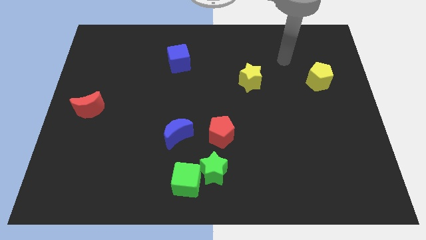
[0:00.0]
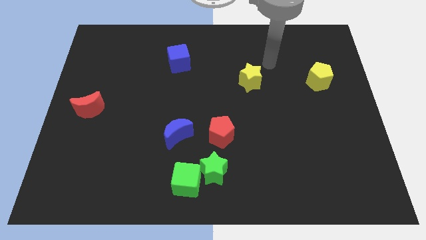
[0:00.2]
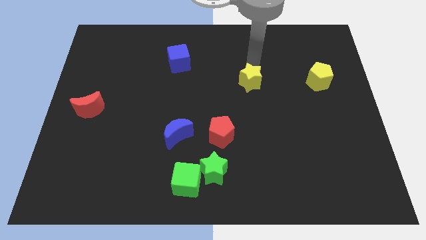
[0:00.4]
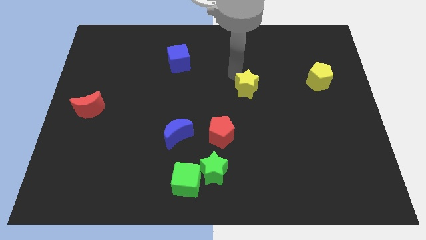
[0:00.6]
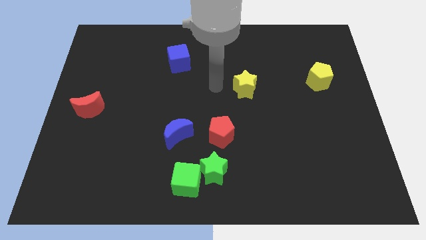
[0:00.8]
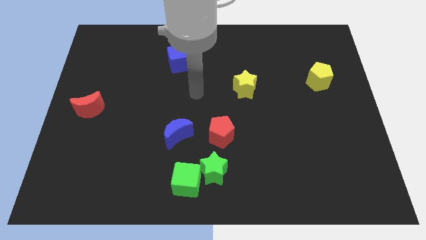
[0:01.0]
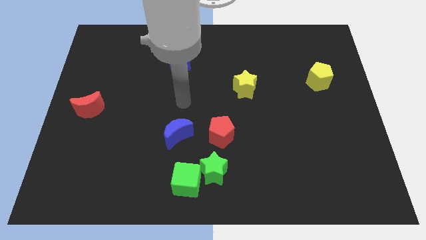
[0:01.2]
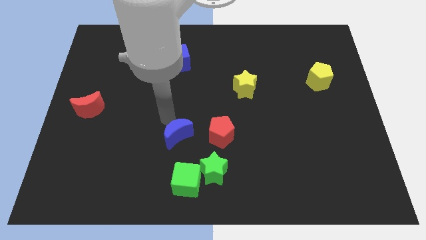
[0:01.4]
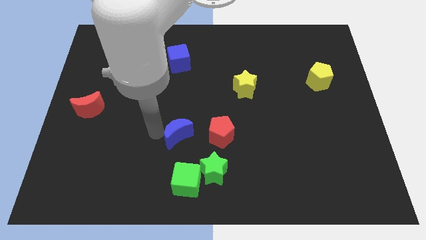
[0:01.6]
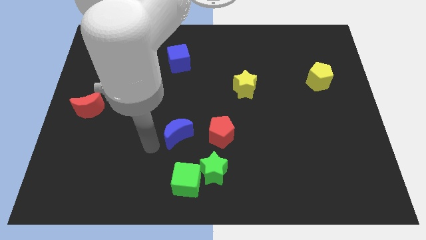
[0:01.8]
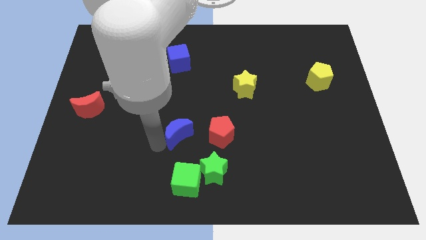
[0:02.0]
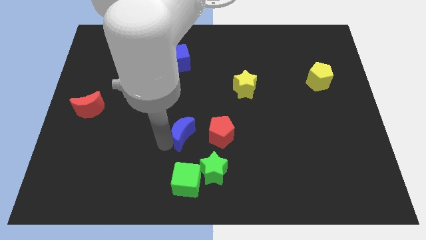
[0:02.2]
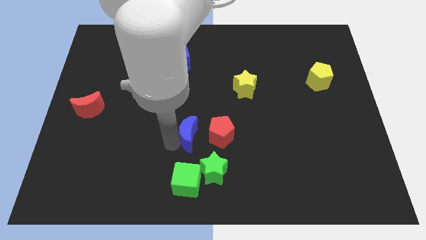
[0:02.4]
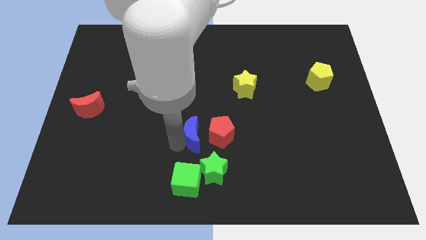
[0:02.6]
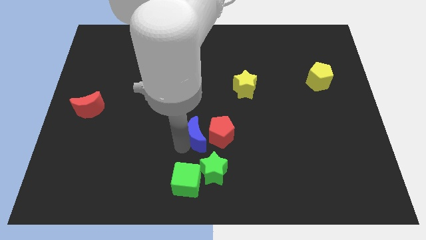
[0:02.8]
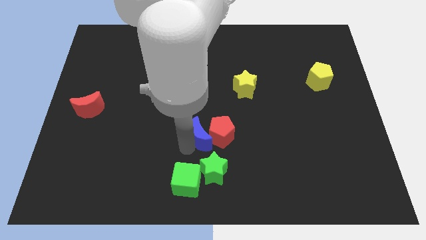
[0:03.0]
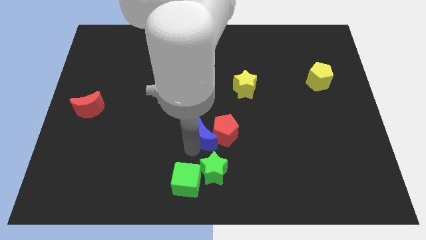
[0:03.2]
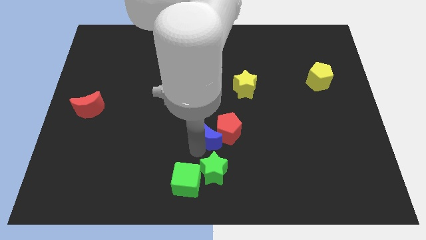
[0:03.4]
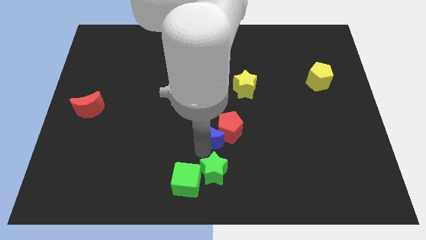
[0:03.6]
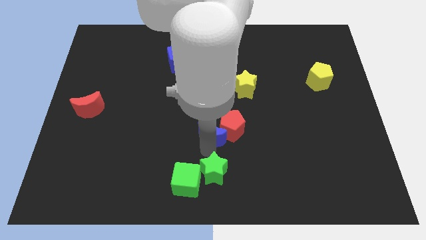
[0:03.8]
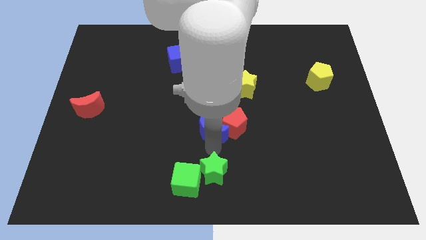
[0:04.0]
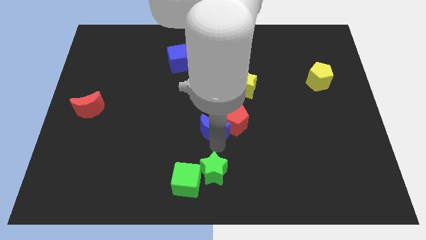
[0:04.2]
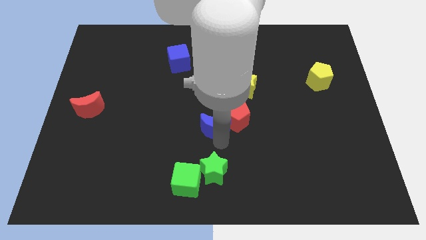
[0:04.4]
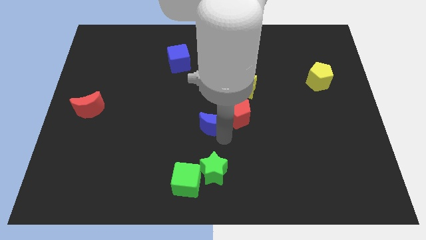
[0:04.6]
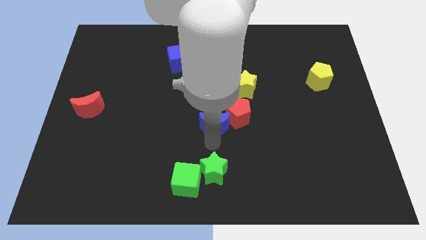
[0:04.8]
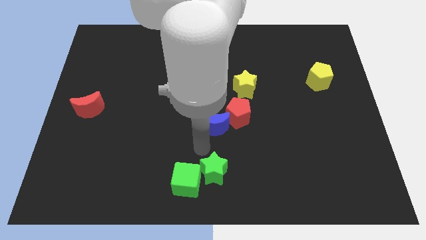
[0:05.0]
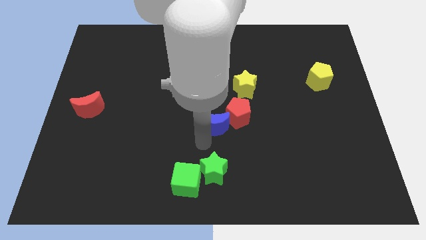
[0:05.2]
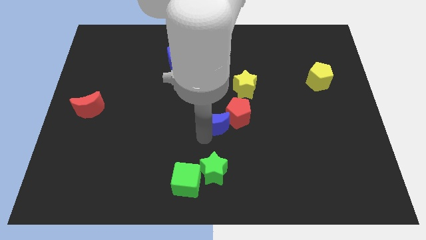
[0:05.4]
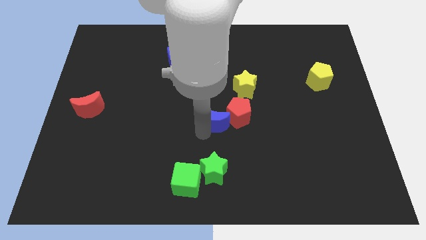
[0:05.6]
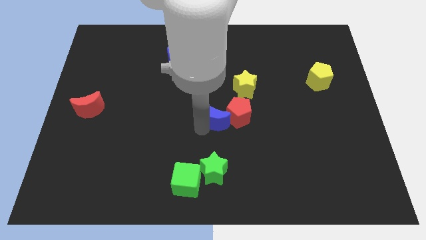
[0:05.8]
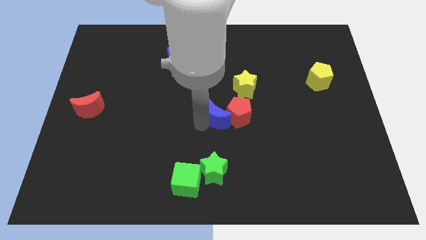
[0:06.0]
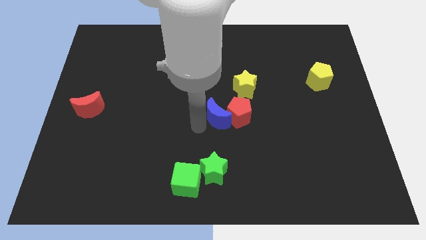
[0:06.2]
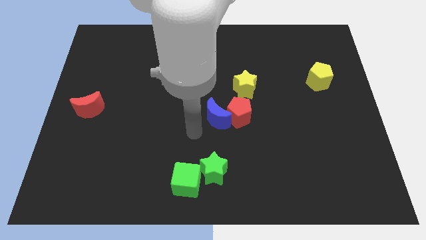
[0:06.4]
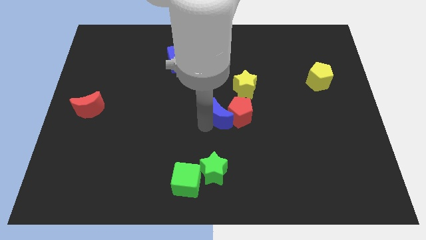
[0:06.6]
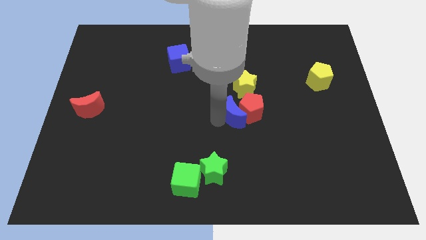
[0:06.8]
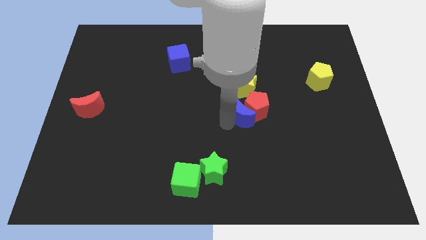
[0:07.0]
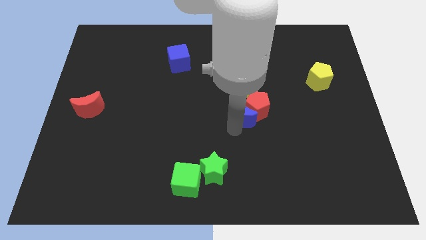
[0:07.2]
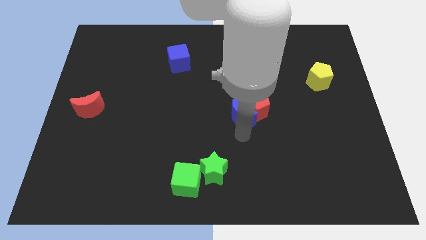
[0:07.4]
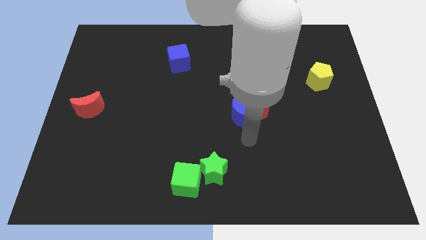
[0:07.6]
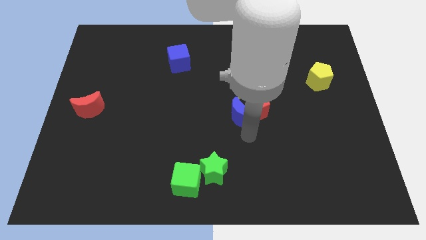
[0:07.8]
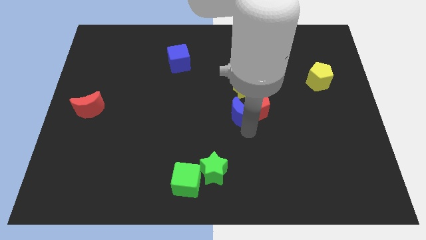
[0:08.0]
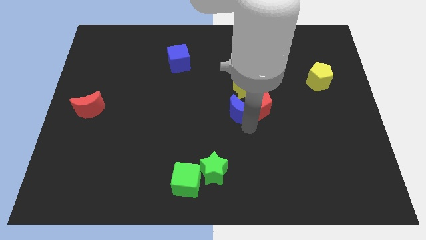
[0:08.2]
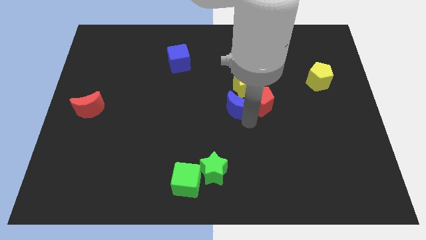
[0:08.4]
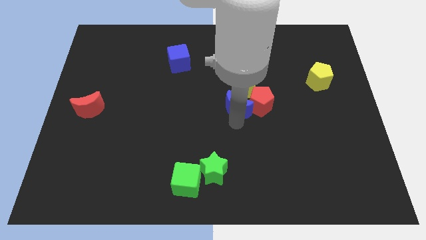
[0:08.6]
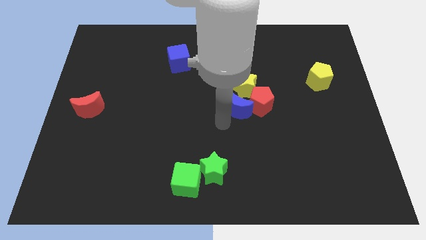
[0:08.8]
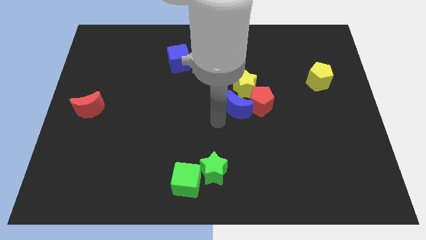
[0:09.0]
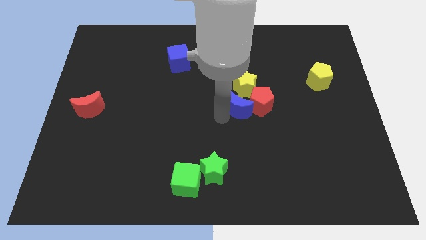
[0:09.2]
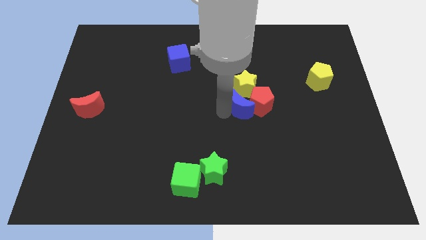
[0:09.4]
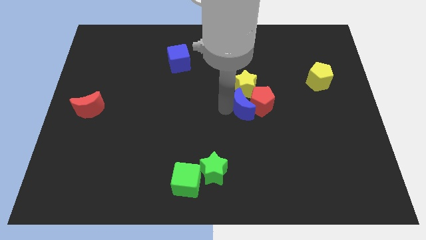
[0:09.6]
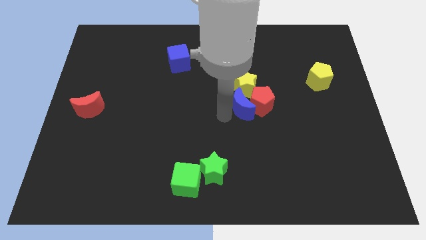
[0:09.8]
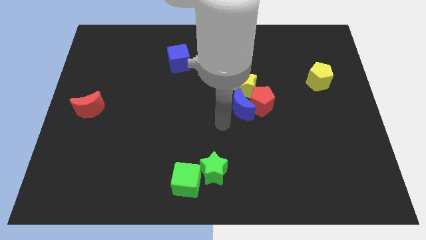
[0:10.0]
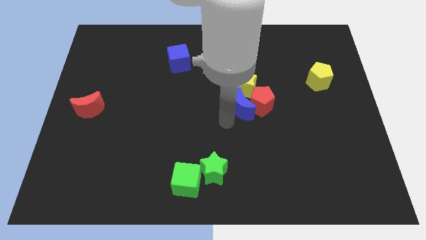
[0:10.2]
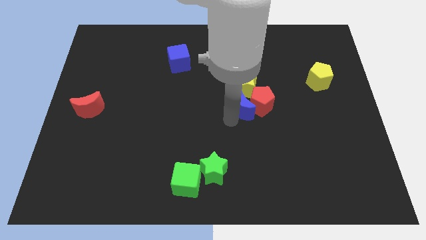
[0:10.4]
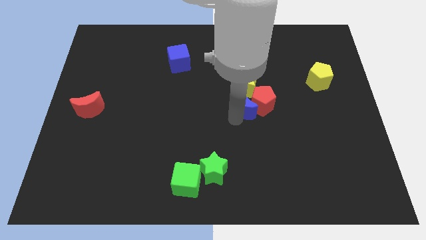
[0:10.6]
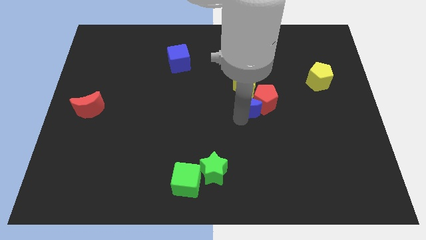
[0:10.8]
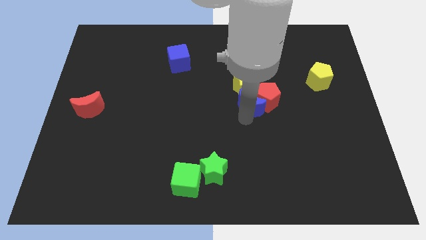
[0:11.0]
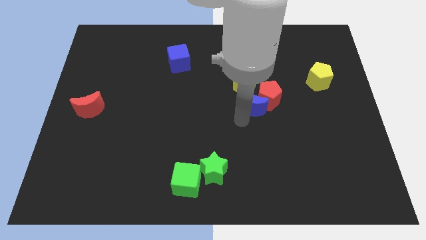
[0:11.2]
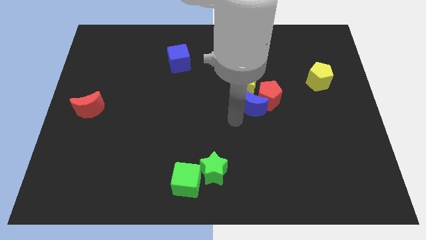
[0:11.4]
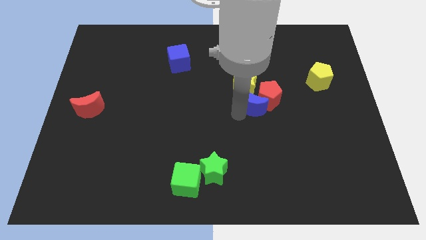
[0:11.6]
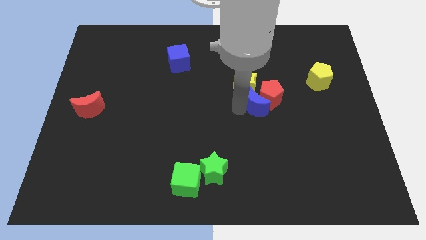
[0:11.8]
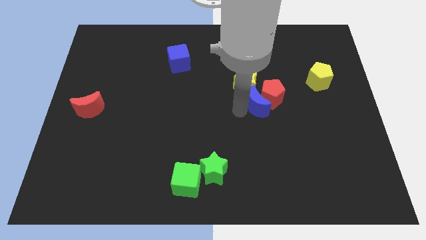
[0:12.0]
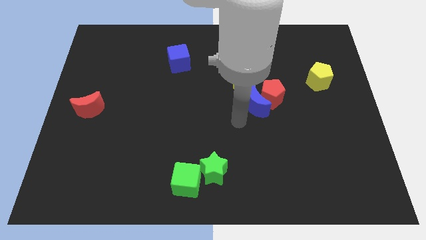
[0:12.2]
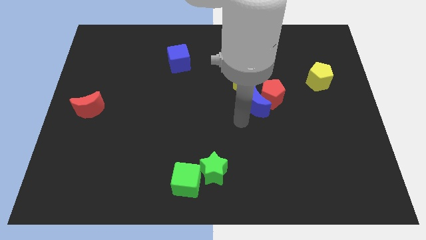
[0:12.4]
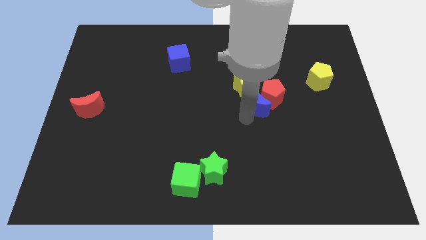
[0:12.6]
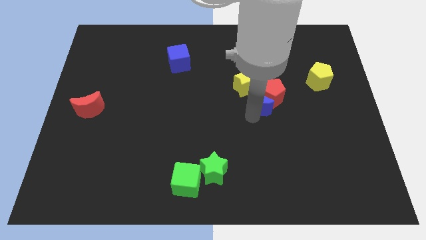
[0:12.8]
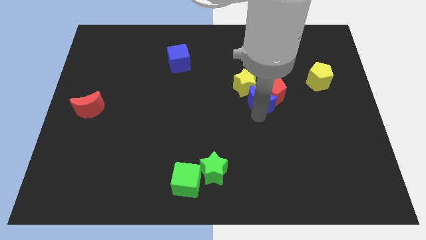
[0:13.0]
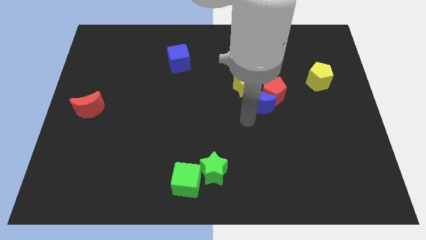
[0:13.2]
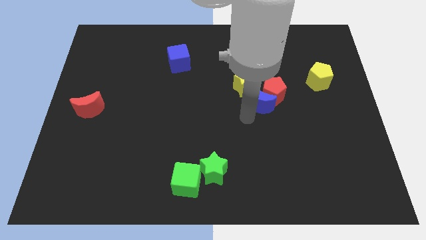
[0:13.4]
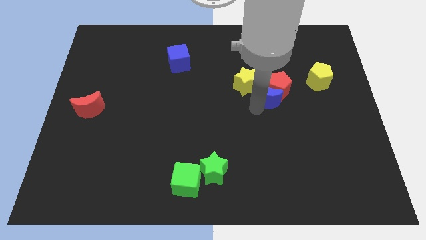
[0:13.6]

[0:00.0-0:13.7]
put the blue moon to the right of the yellow star
